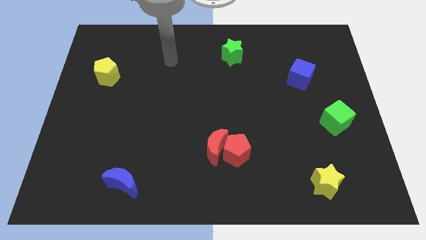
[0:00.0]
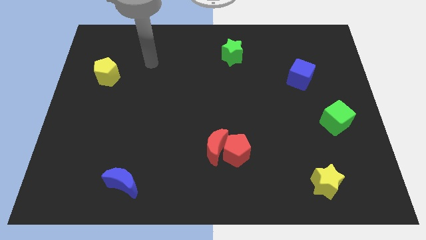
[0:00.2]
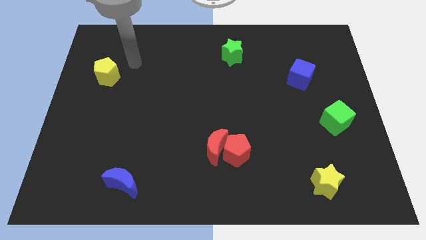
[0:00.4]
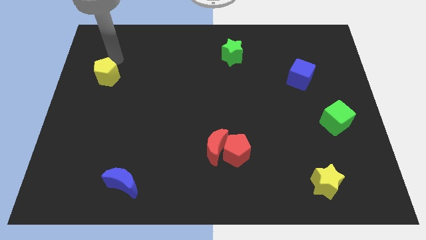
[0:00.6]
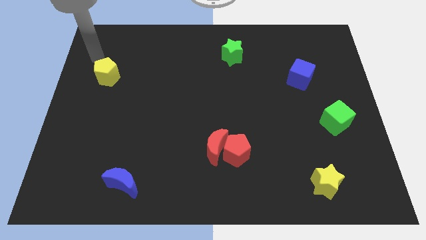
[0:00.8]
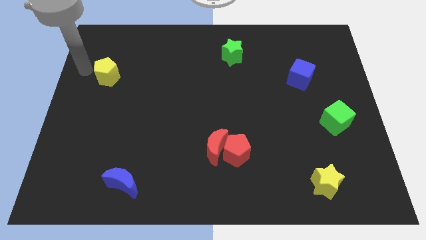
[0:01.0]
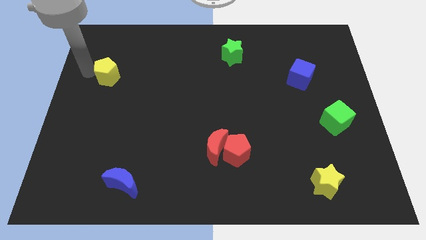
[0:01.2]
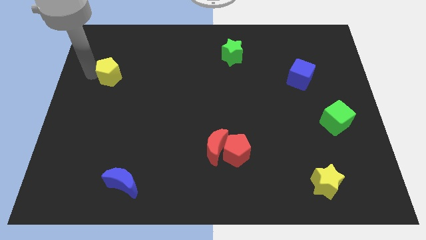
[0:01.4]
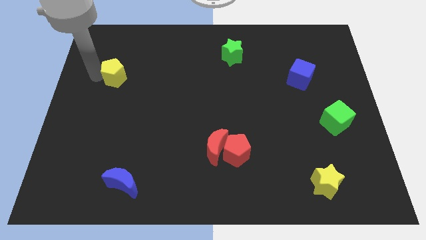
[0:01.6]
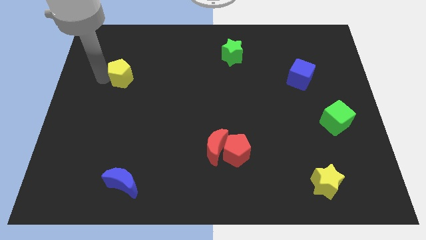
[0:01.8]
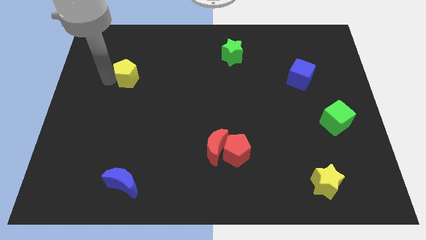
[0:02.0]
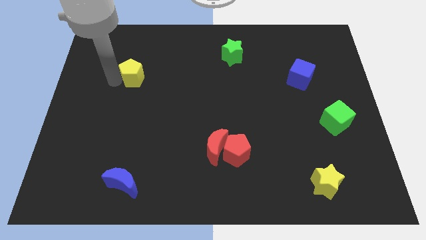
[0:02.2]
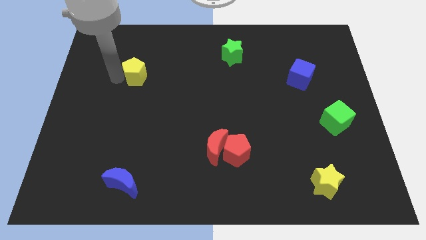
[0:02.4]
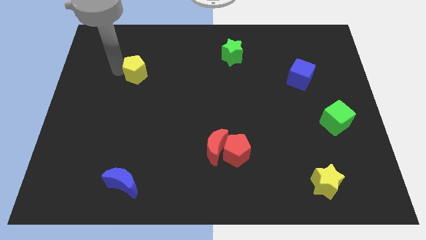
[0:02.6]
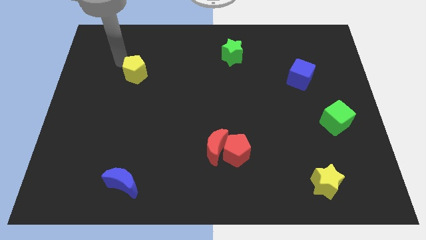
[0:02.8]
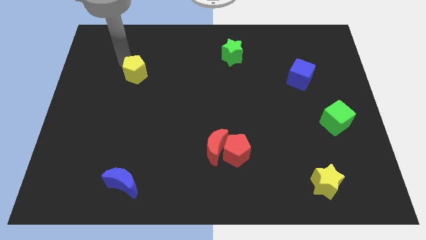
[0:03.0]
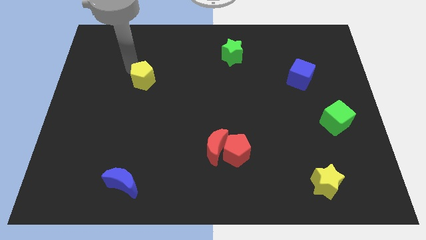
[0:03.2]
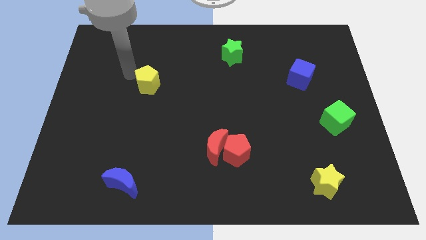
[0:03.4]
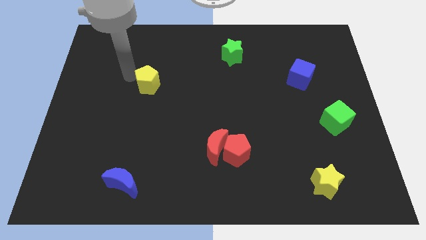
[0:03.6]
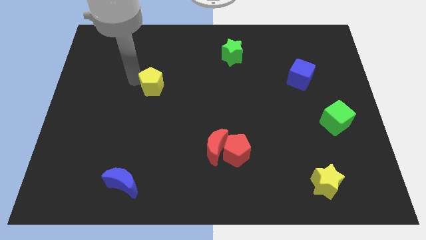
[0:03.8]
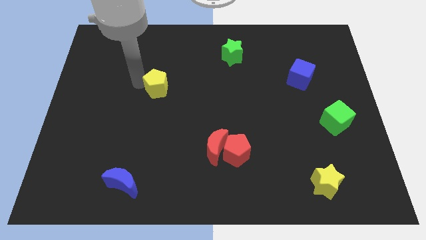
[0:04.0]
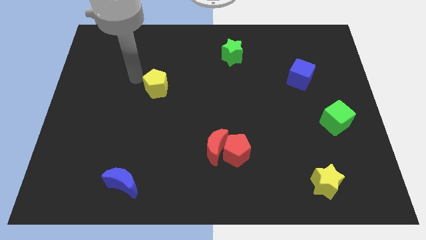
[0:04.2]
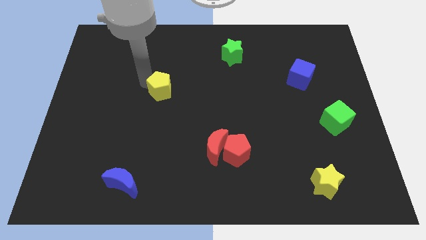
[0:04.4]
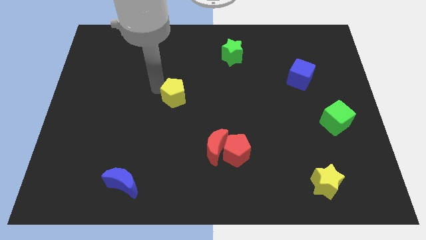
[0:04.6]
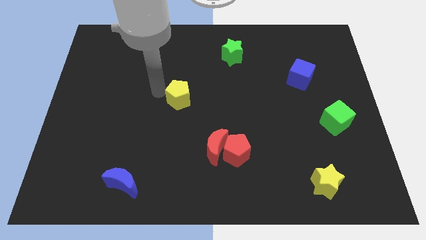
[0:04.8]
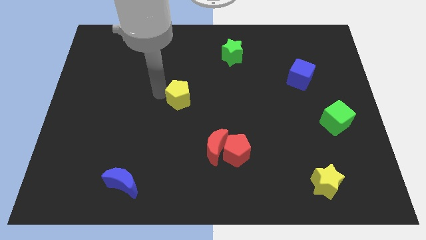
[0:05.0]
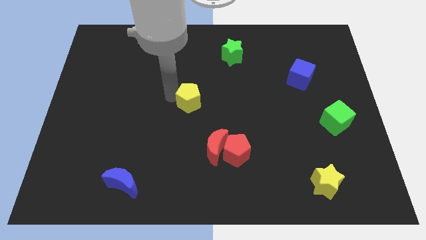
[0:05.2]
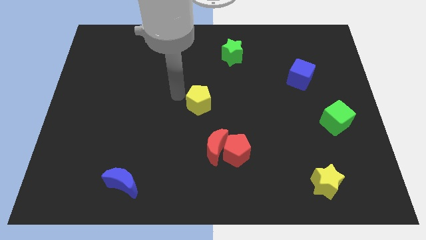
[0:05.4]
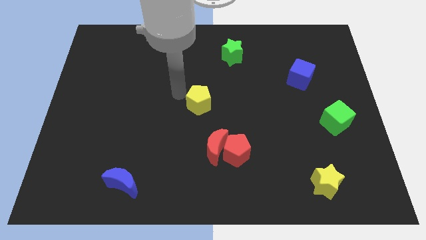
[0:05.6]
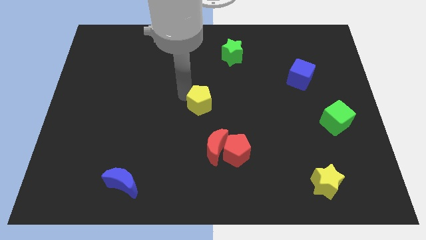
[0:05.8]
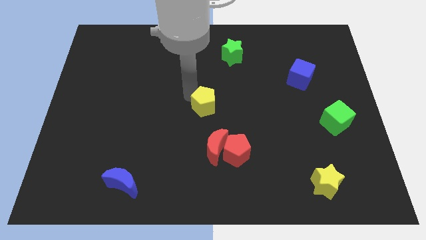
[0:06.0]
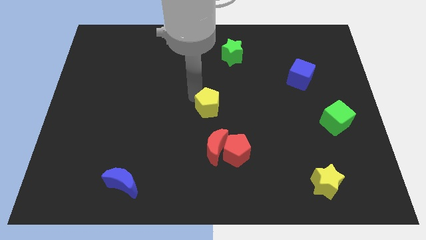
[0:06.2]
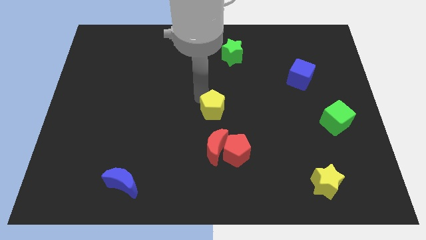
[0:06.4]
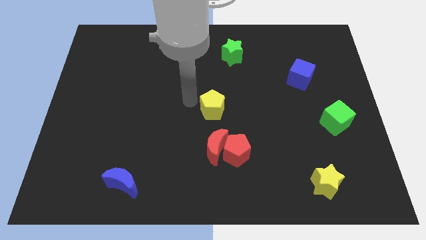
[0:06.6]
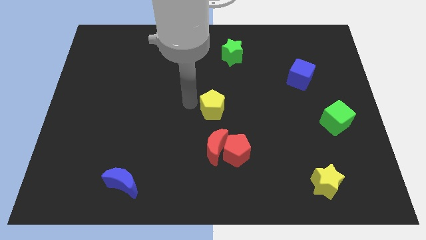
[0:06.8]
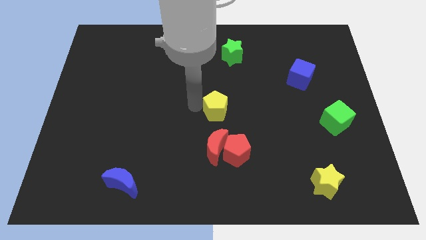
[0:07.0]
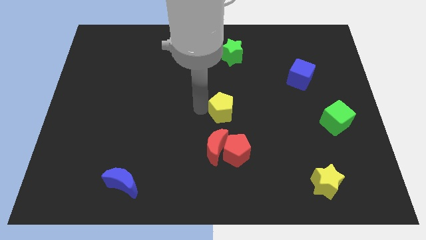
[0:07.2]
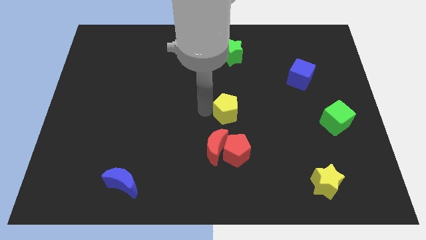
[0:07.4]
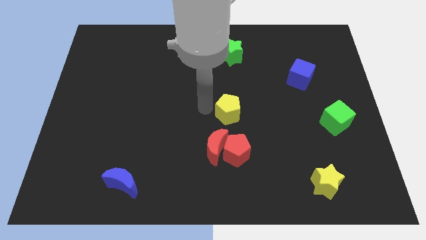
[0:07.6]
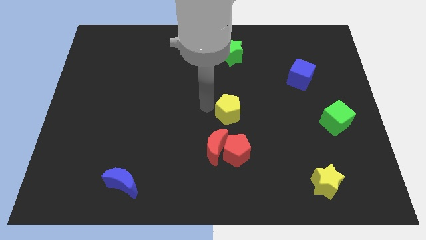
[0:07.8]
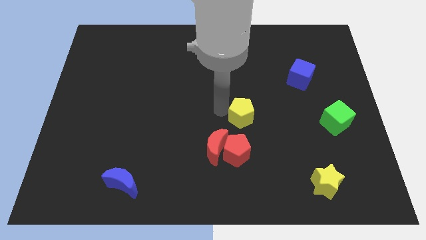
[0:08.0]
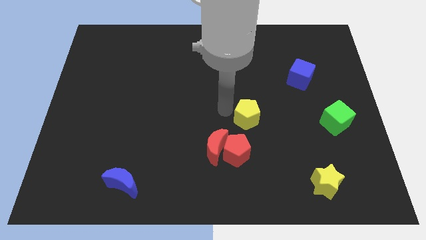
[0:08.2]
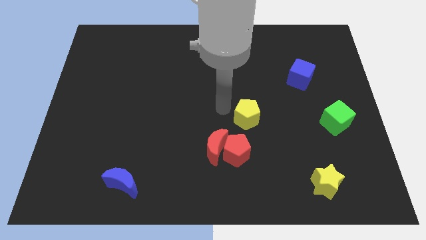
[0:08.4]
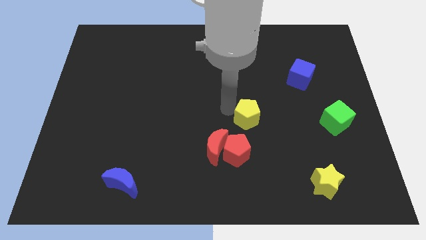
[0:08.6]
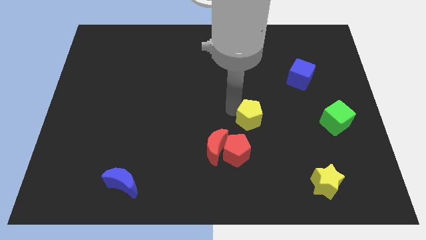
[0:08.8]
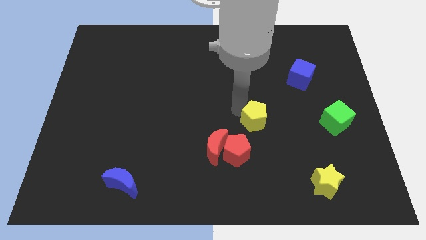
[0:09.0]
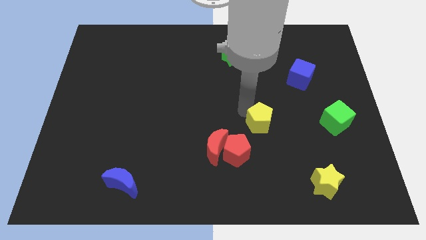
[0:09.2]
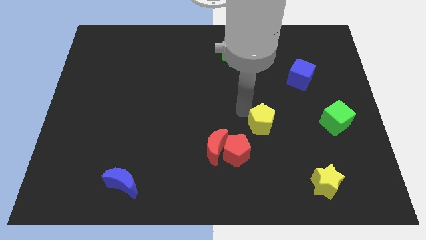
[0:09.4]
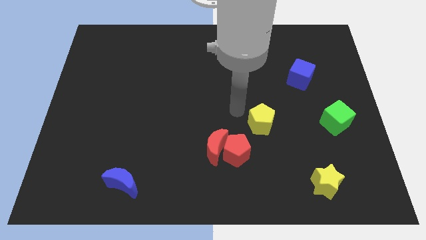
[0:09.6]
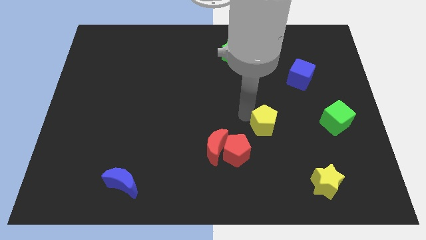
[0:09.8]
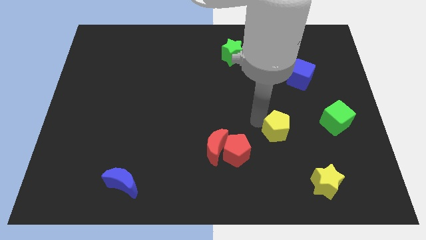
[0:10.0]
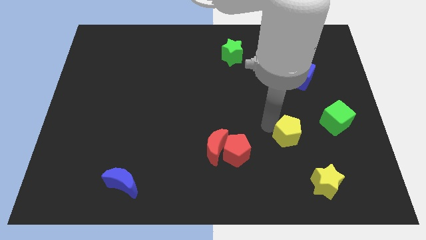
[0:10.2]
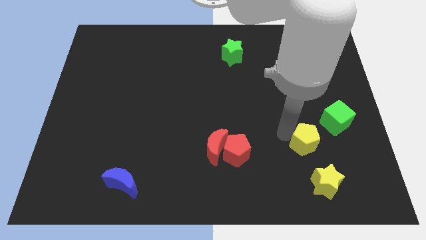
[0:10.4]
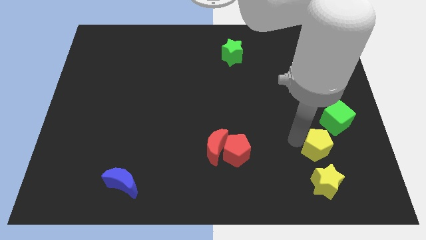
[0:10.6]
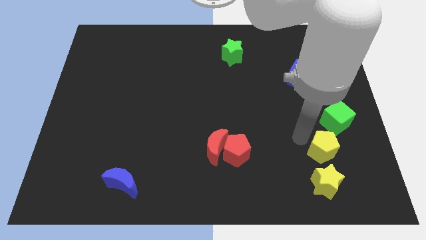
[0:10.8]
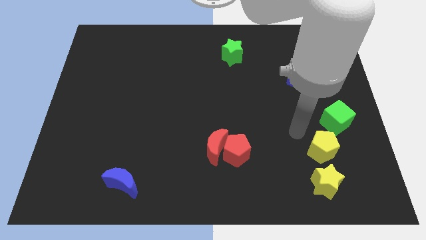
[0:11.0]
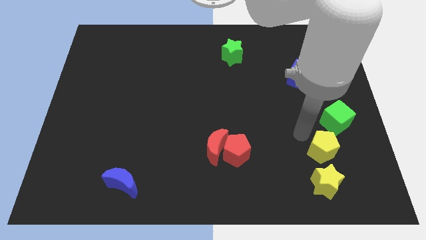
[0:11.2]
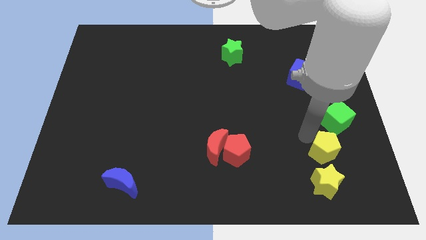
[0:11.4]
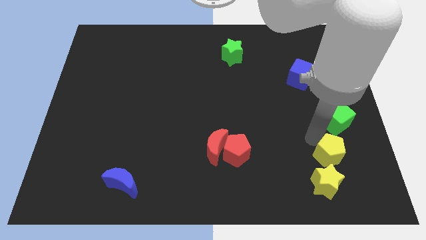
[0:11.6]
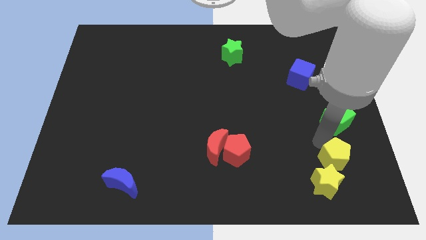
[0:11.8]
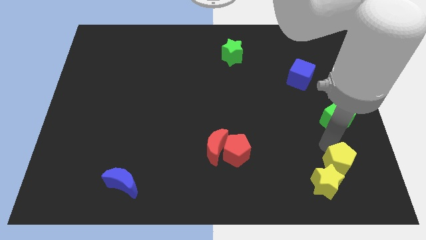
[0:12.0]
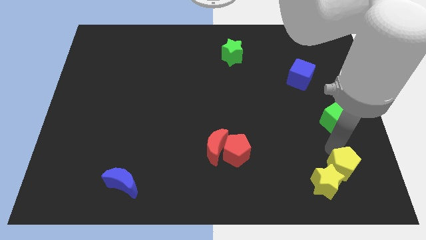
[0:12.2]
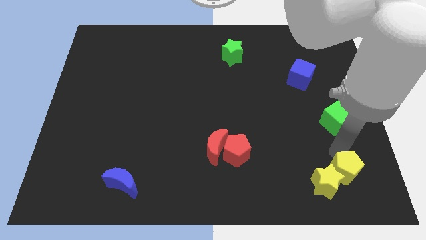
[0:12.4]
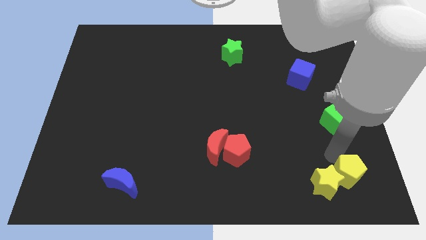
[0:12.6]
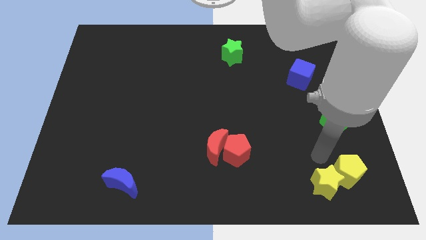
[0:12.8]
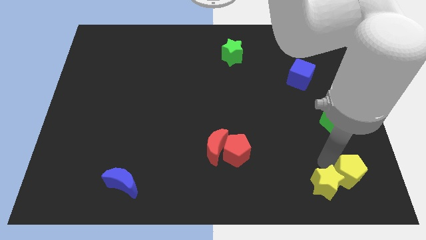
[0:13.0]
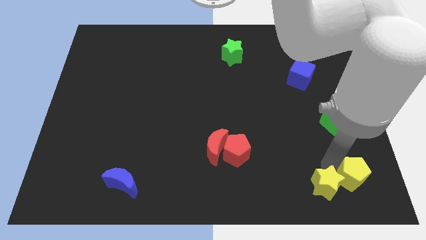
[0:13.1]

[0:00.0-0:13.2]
put the yellow pentagon to the bottom right corner
